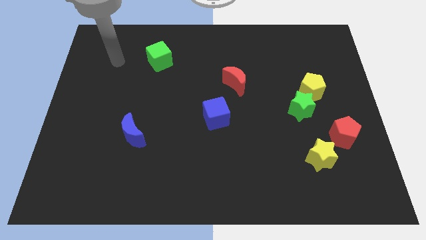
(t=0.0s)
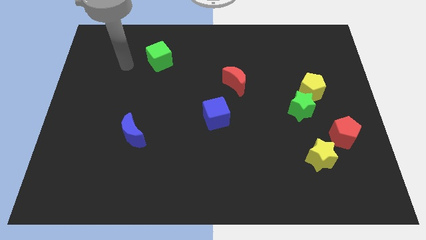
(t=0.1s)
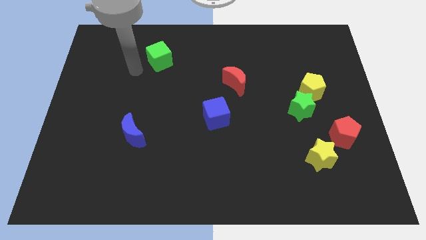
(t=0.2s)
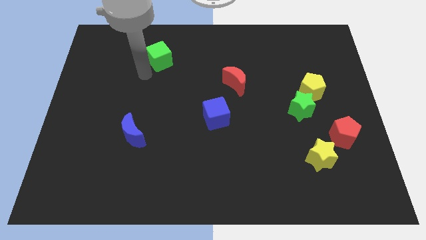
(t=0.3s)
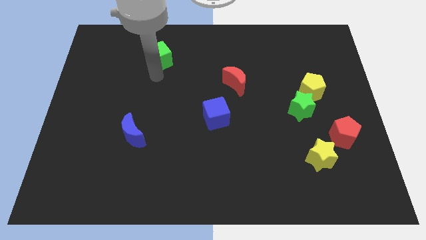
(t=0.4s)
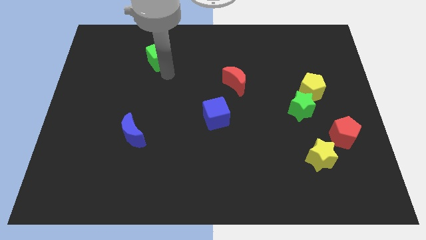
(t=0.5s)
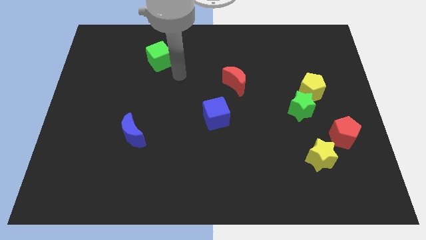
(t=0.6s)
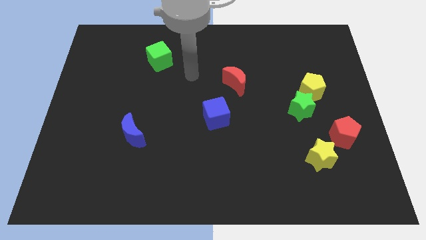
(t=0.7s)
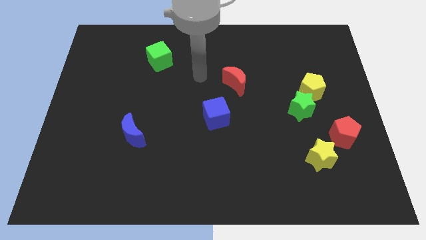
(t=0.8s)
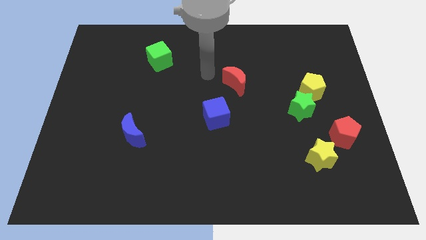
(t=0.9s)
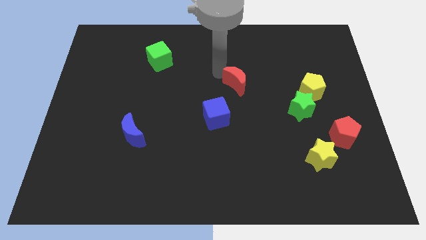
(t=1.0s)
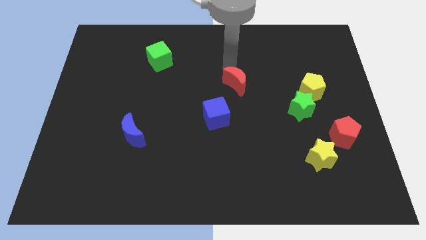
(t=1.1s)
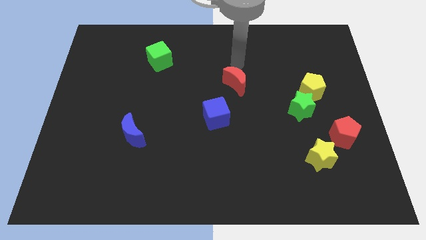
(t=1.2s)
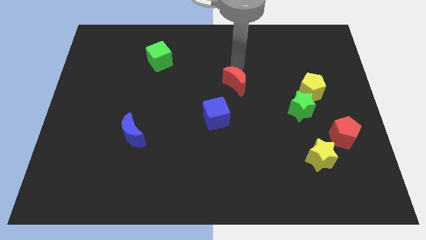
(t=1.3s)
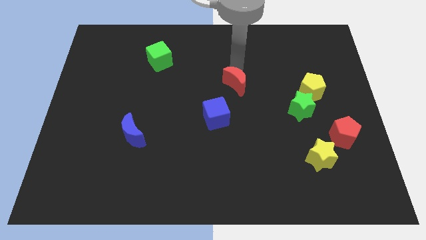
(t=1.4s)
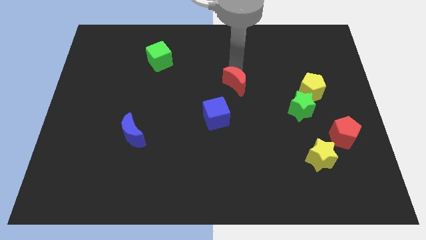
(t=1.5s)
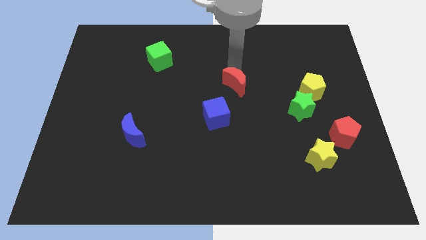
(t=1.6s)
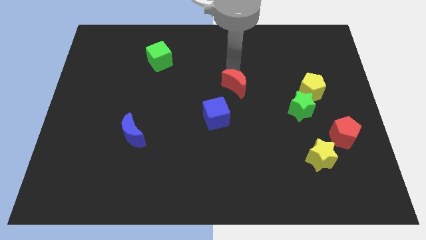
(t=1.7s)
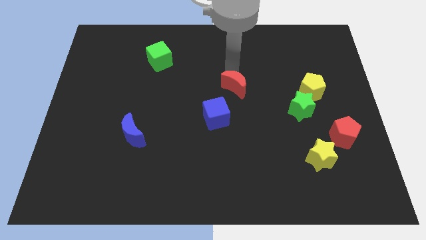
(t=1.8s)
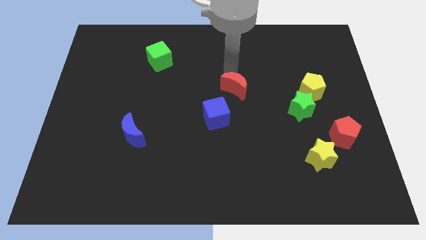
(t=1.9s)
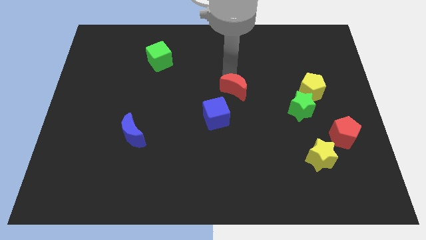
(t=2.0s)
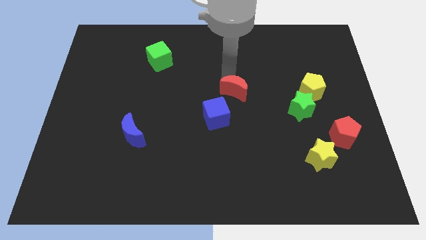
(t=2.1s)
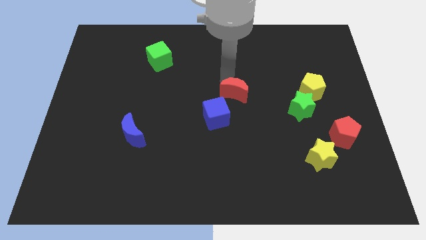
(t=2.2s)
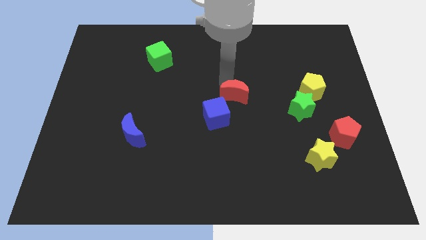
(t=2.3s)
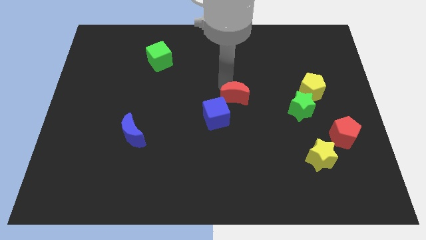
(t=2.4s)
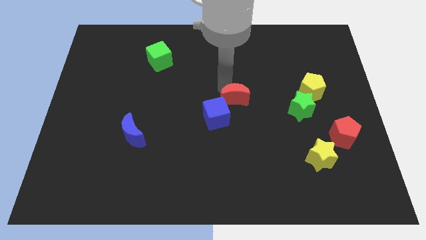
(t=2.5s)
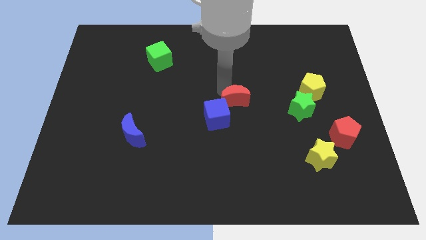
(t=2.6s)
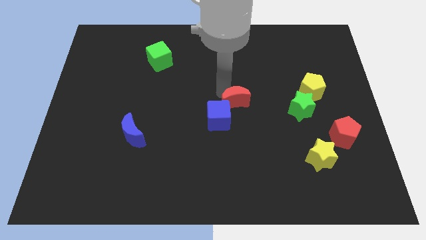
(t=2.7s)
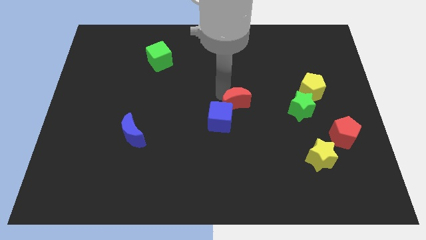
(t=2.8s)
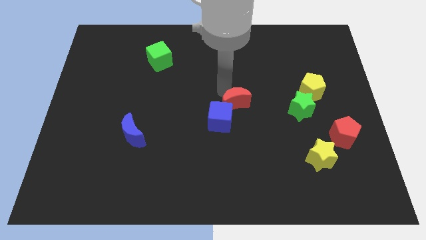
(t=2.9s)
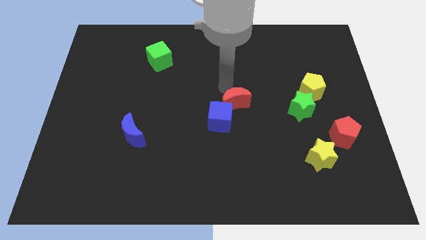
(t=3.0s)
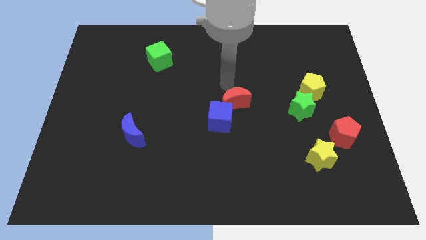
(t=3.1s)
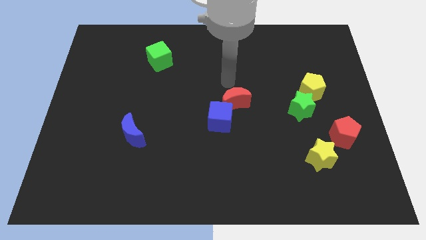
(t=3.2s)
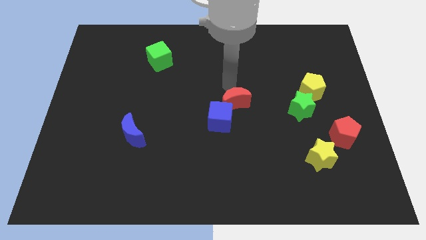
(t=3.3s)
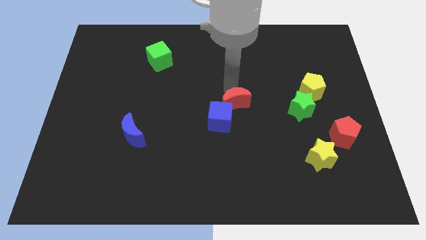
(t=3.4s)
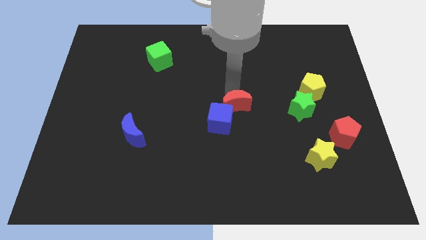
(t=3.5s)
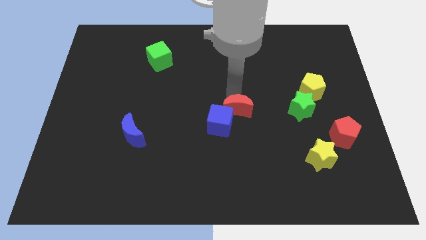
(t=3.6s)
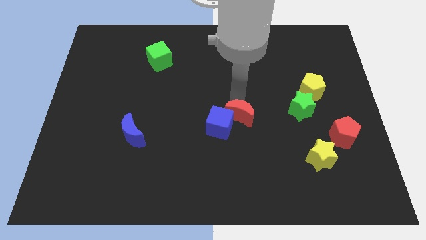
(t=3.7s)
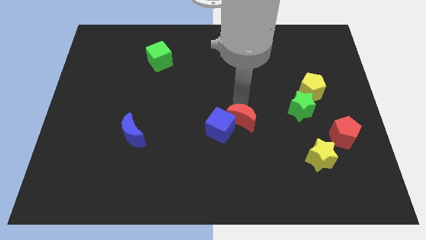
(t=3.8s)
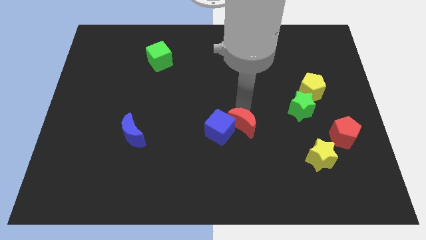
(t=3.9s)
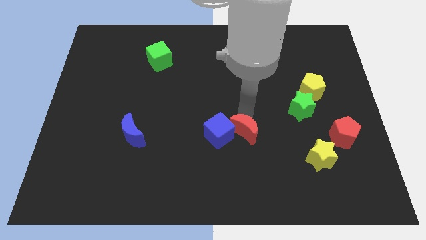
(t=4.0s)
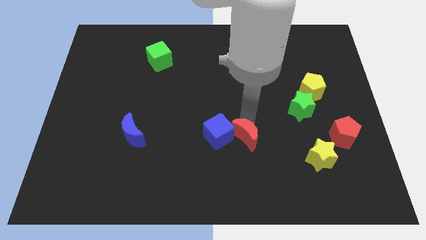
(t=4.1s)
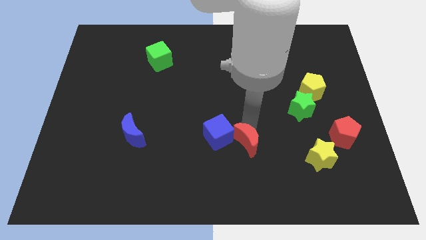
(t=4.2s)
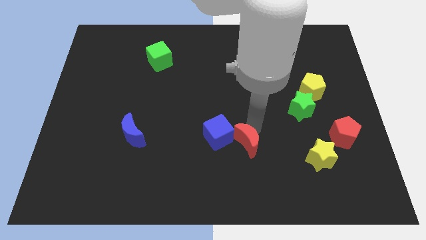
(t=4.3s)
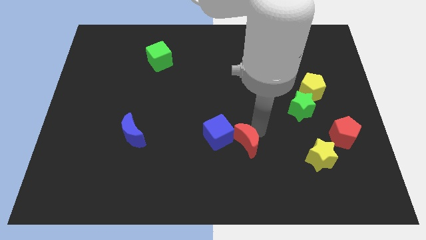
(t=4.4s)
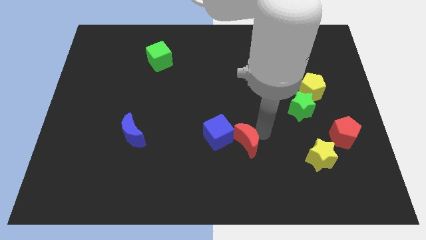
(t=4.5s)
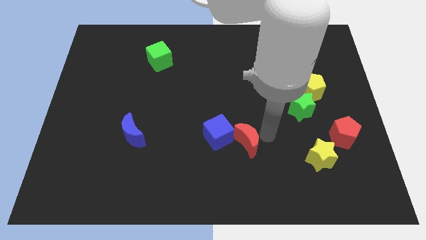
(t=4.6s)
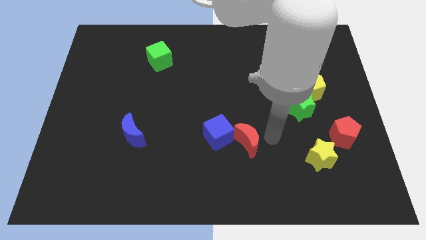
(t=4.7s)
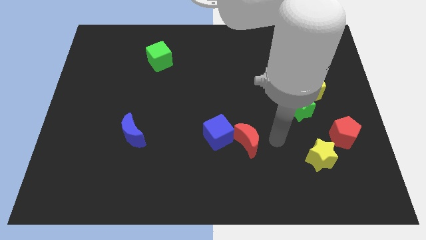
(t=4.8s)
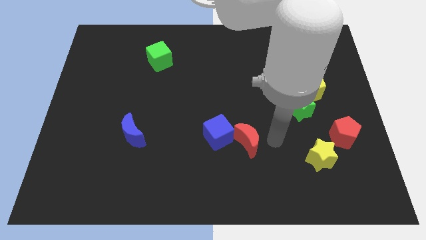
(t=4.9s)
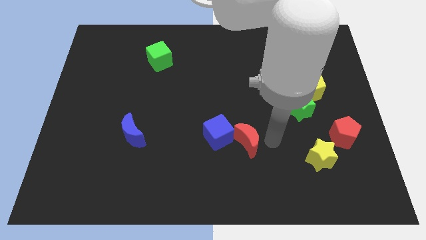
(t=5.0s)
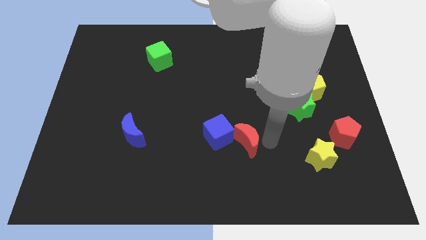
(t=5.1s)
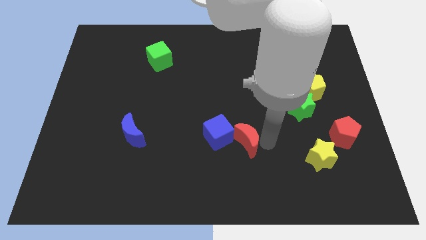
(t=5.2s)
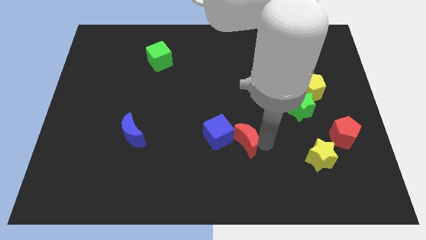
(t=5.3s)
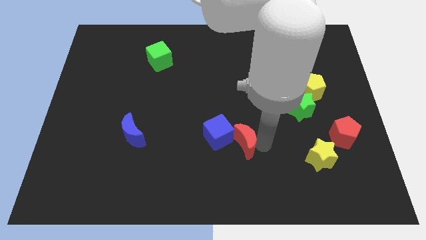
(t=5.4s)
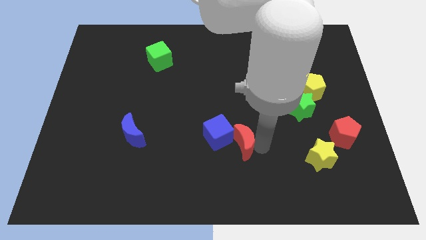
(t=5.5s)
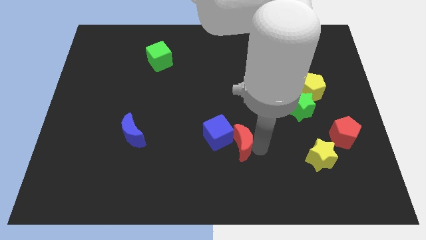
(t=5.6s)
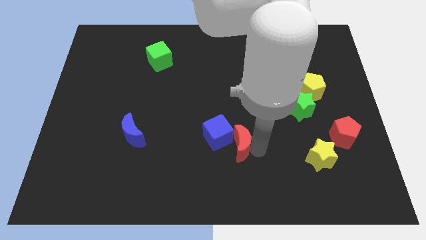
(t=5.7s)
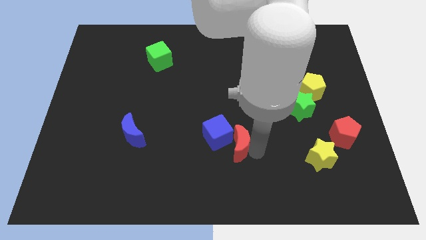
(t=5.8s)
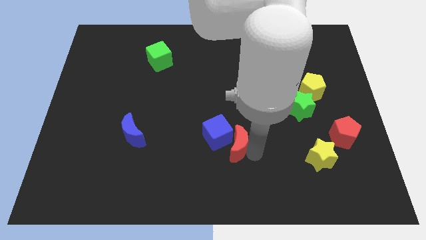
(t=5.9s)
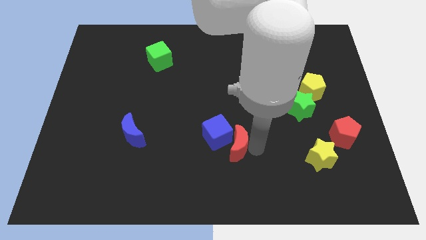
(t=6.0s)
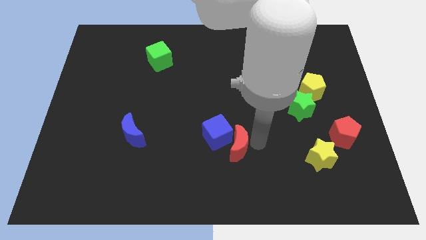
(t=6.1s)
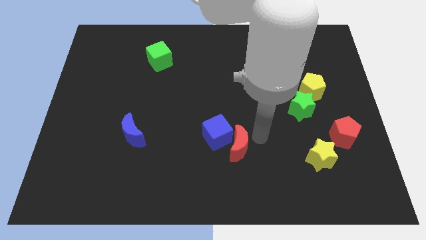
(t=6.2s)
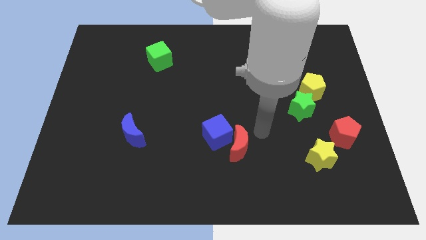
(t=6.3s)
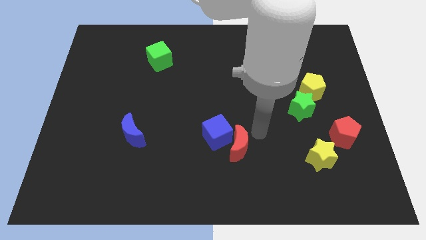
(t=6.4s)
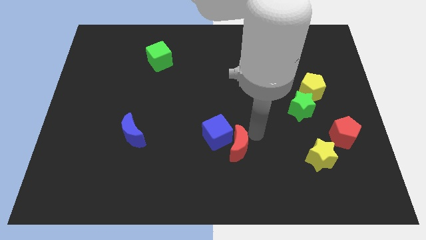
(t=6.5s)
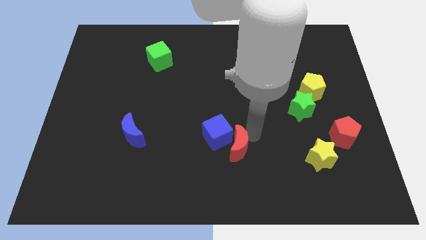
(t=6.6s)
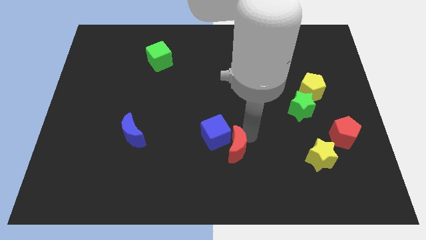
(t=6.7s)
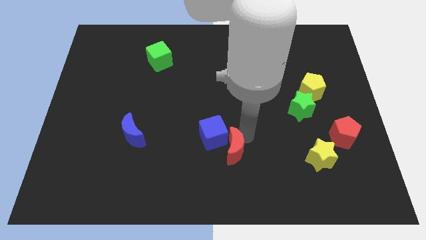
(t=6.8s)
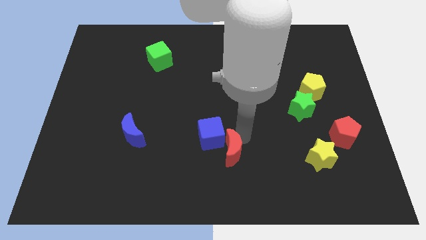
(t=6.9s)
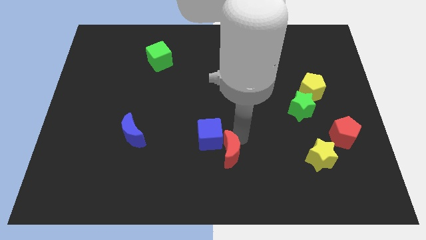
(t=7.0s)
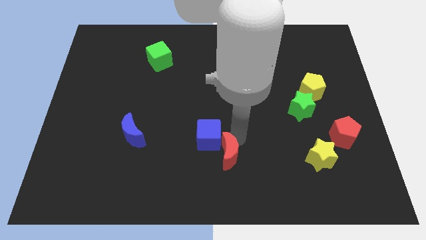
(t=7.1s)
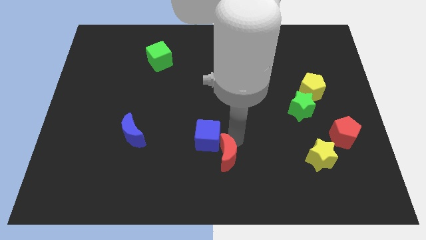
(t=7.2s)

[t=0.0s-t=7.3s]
move the red moon to the bottom side

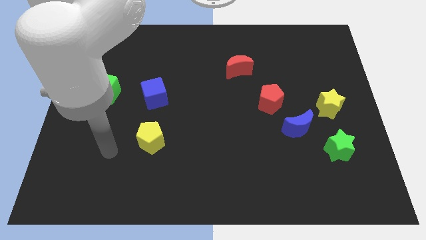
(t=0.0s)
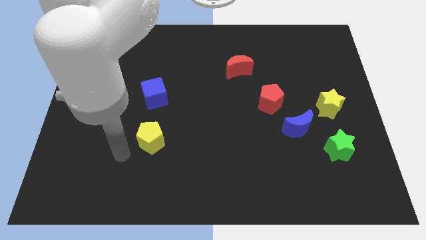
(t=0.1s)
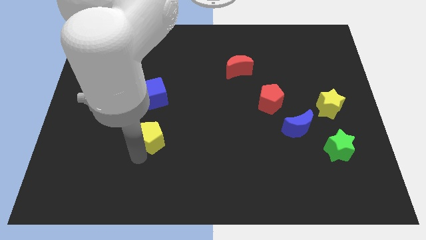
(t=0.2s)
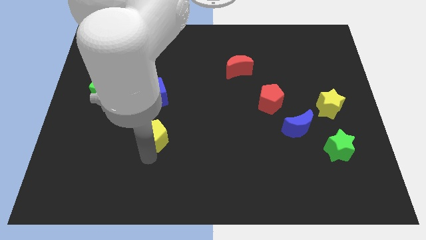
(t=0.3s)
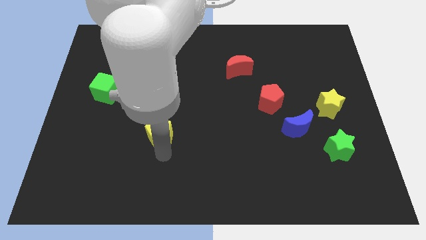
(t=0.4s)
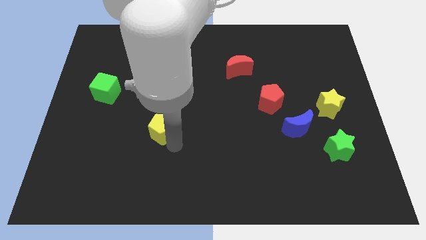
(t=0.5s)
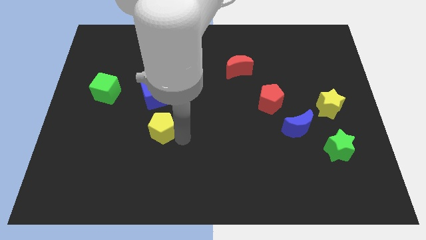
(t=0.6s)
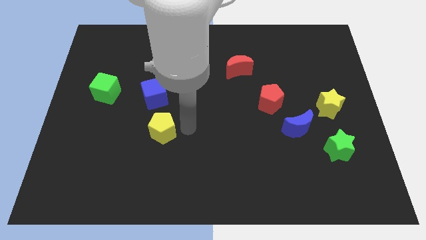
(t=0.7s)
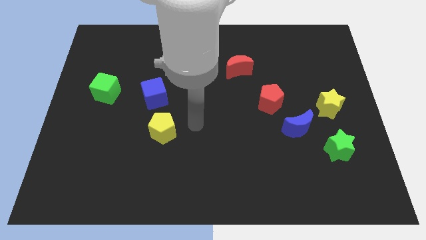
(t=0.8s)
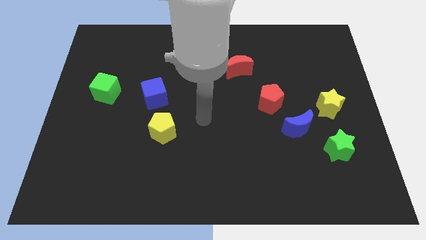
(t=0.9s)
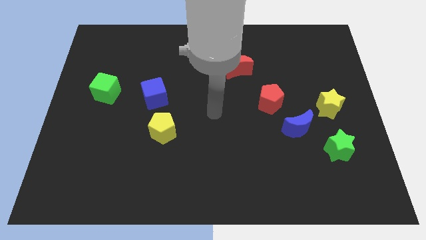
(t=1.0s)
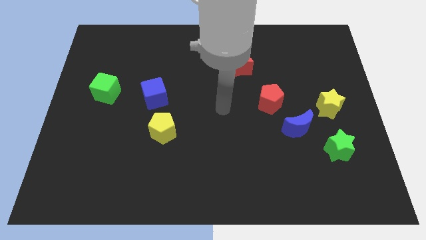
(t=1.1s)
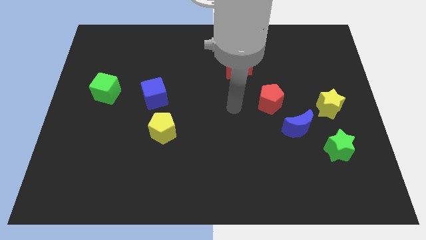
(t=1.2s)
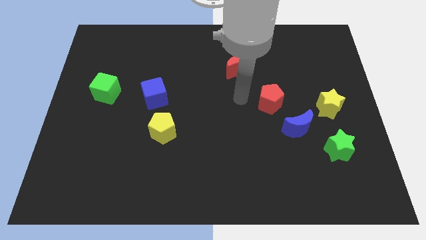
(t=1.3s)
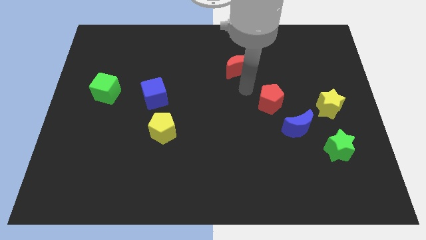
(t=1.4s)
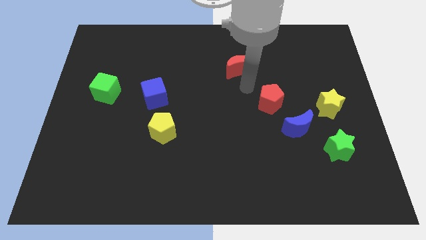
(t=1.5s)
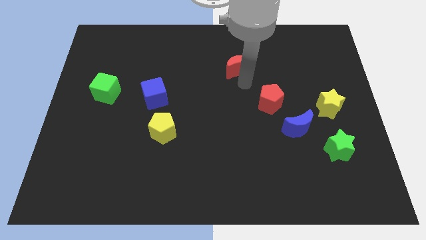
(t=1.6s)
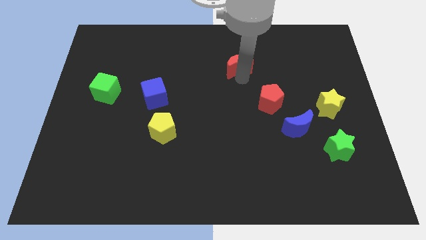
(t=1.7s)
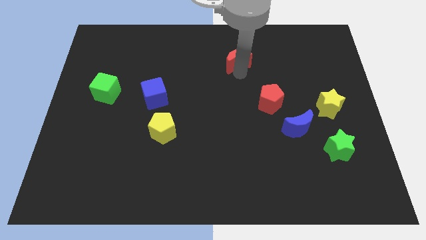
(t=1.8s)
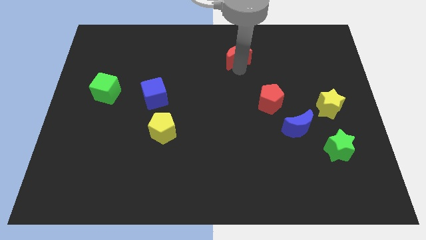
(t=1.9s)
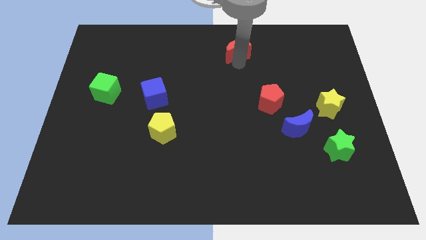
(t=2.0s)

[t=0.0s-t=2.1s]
move the red moon to the towards your base
